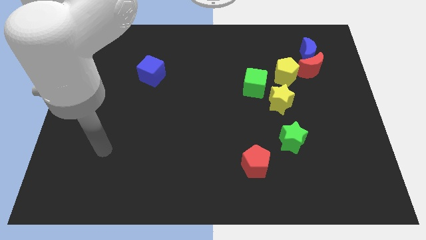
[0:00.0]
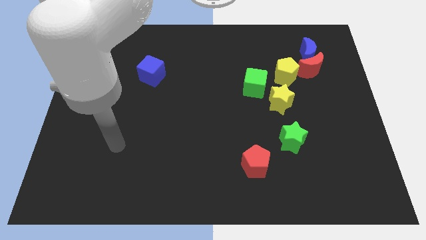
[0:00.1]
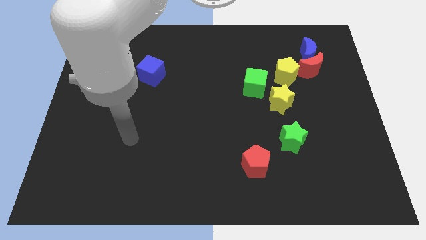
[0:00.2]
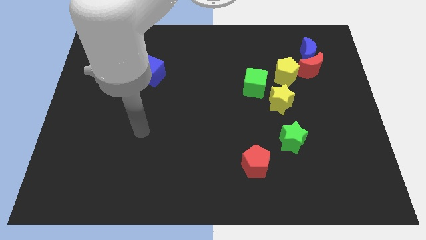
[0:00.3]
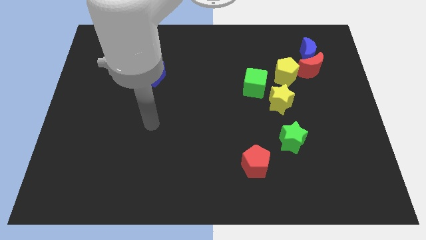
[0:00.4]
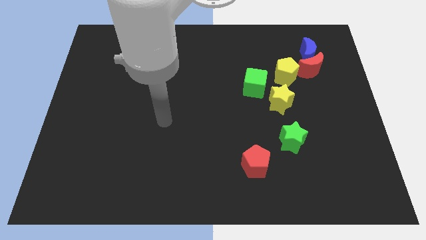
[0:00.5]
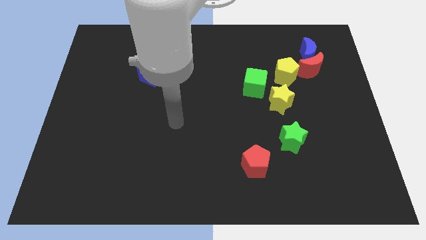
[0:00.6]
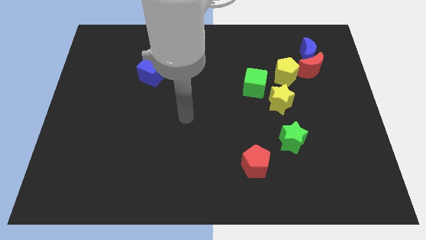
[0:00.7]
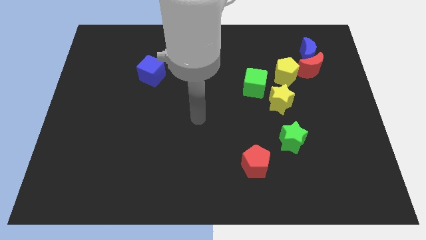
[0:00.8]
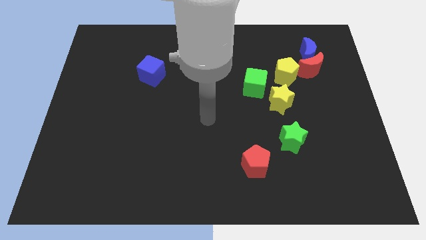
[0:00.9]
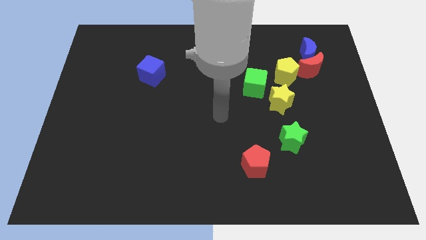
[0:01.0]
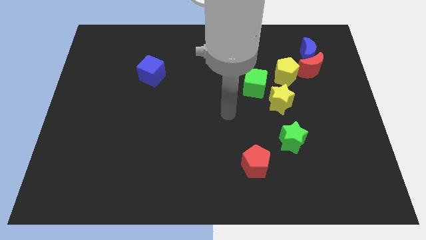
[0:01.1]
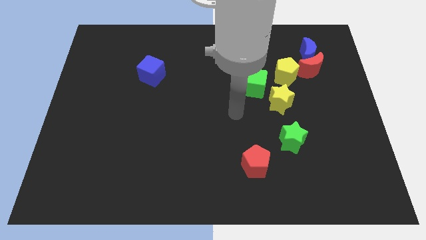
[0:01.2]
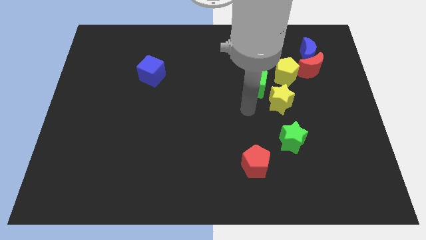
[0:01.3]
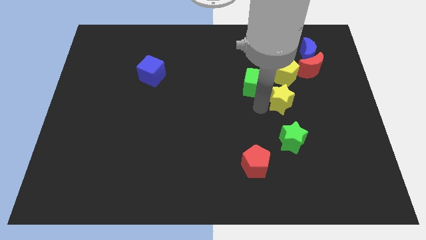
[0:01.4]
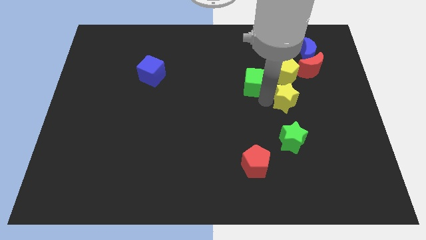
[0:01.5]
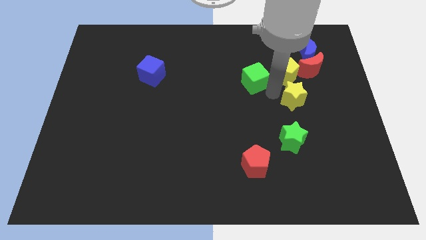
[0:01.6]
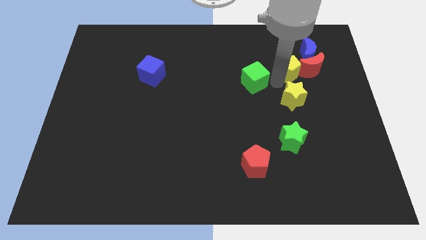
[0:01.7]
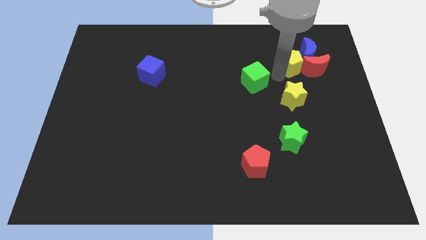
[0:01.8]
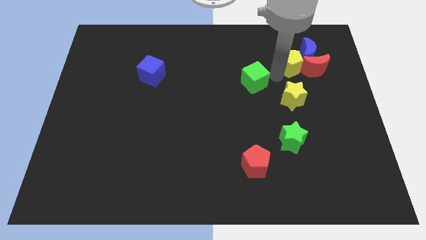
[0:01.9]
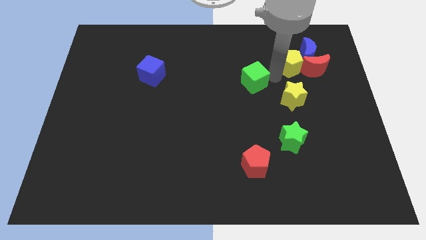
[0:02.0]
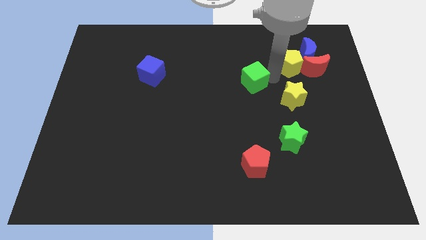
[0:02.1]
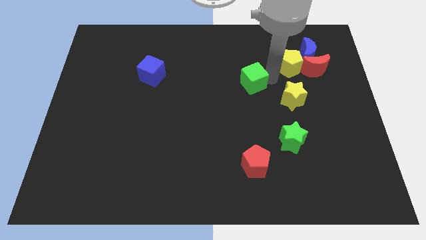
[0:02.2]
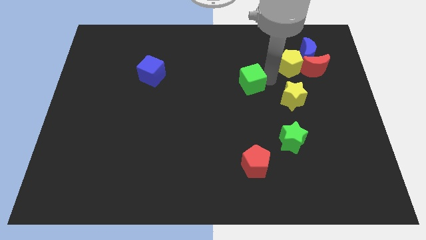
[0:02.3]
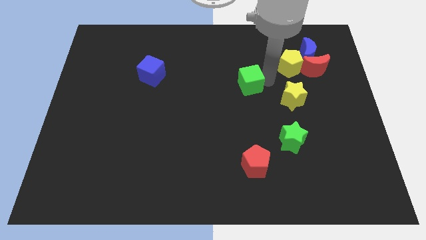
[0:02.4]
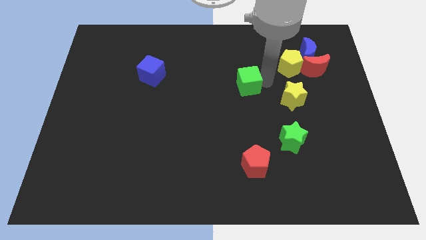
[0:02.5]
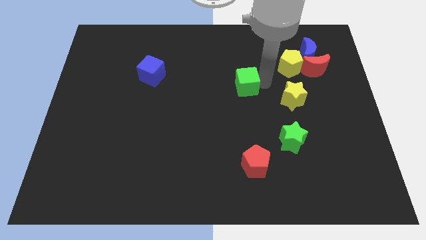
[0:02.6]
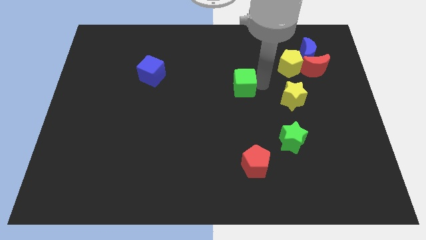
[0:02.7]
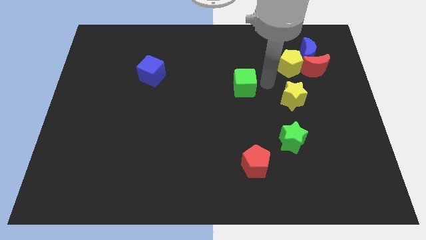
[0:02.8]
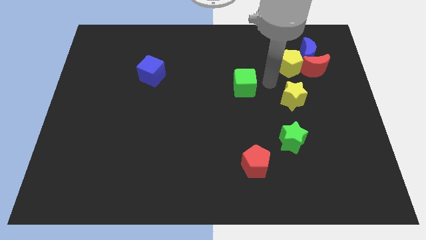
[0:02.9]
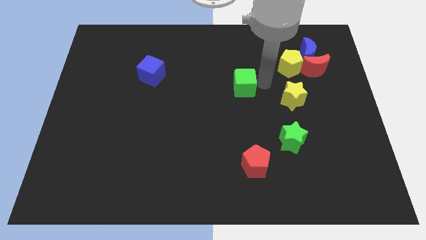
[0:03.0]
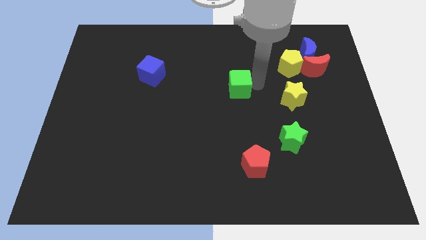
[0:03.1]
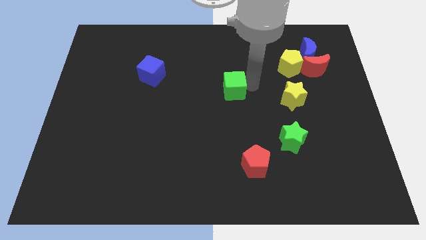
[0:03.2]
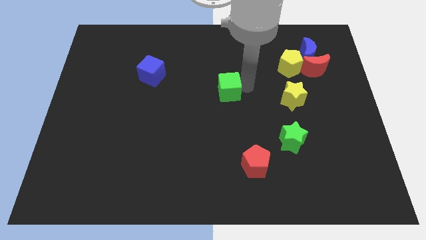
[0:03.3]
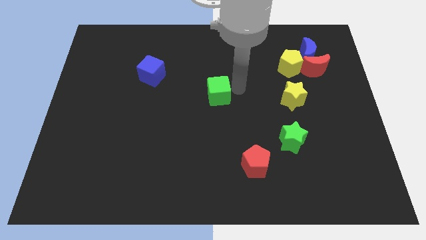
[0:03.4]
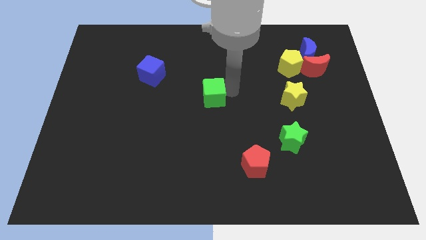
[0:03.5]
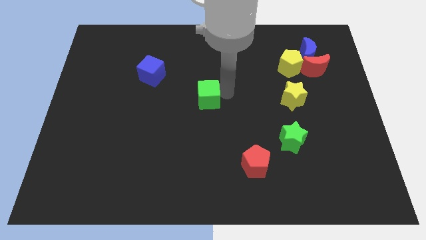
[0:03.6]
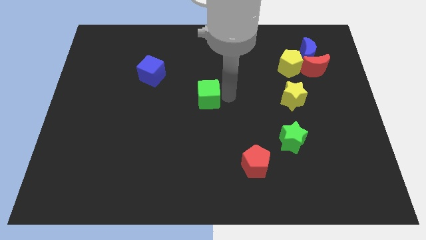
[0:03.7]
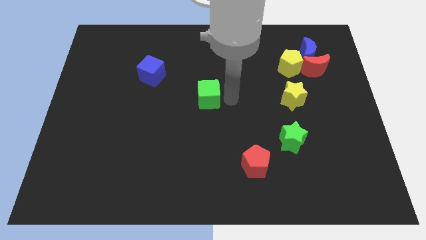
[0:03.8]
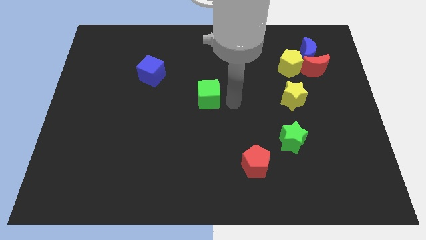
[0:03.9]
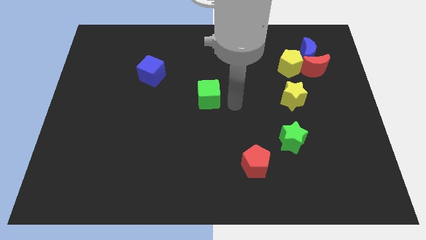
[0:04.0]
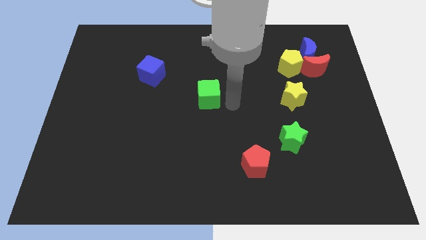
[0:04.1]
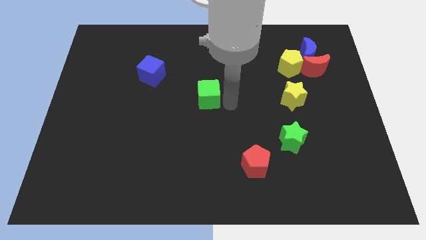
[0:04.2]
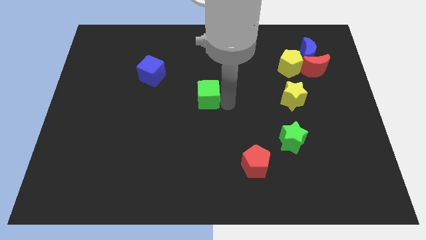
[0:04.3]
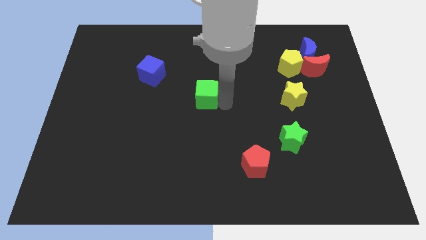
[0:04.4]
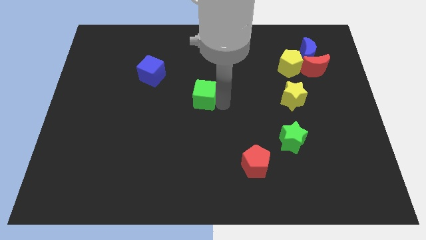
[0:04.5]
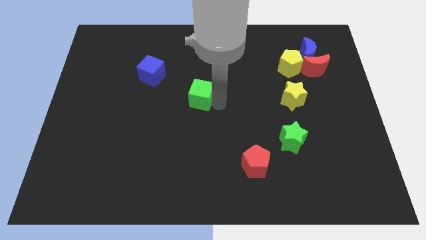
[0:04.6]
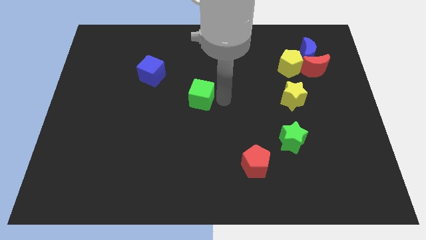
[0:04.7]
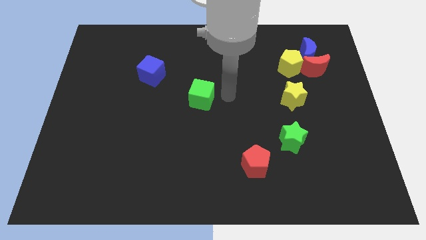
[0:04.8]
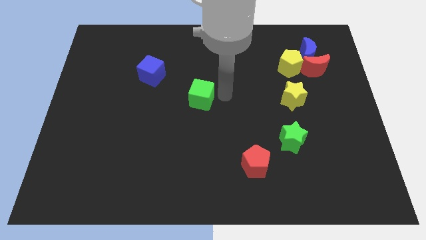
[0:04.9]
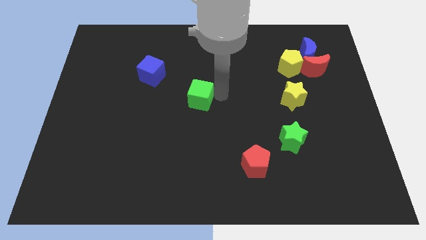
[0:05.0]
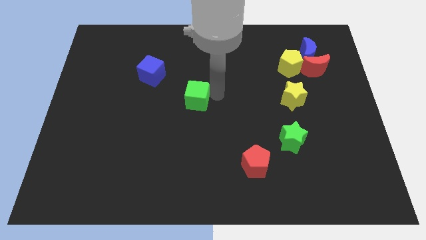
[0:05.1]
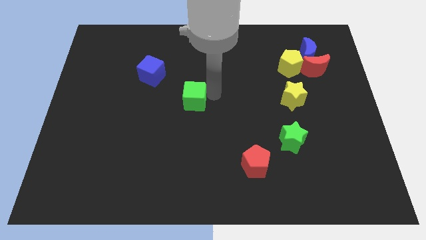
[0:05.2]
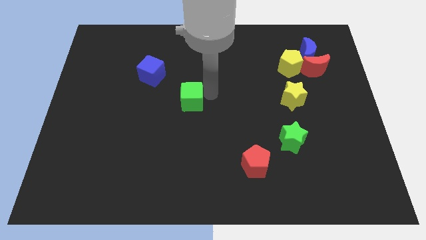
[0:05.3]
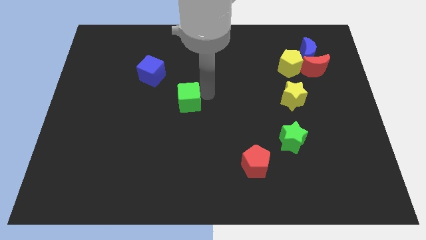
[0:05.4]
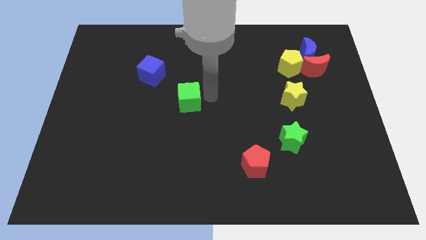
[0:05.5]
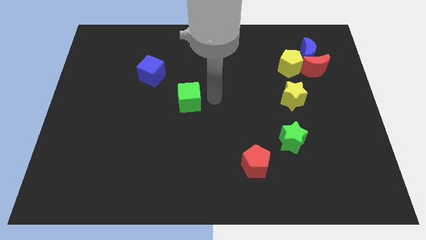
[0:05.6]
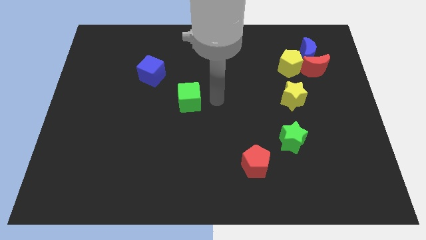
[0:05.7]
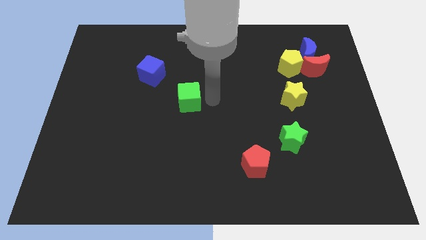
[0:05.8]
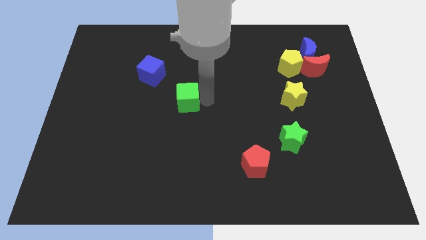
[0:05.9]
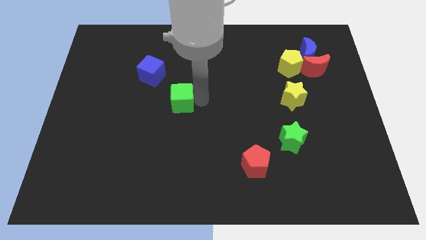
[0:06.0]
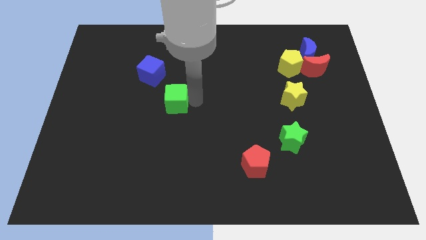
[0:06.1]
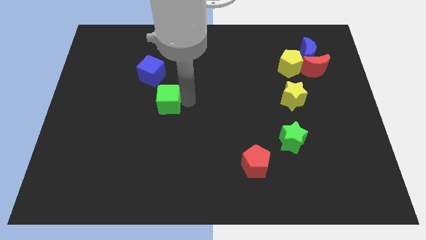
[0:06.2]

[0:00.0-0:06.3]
move the green cube to the bottom of the blue cube
